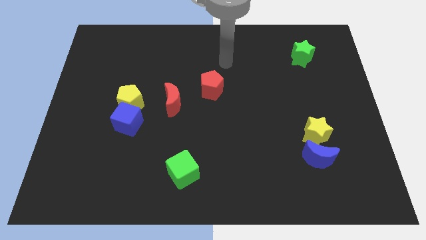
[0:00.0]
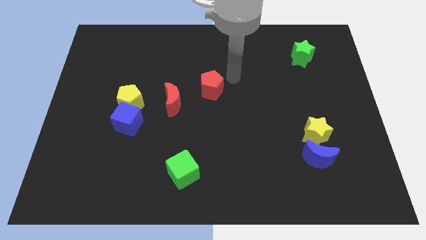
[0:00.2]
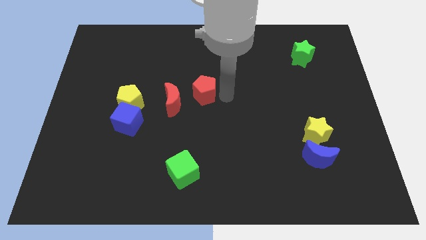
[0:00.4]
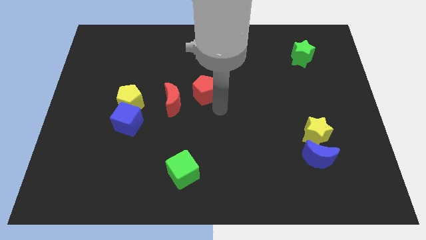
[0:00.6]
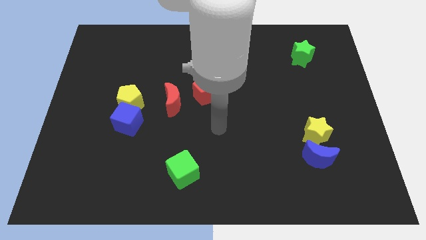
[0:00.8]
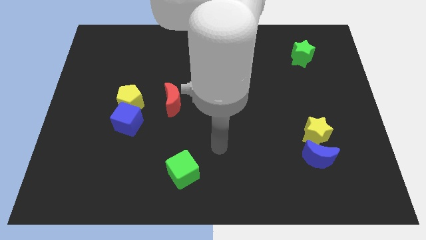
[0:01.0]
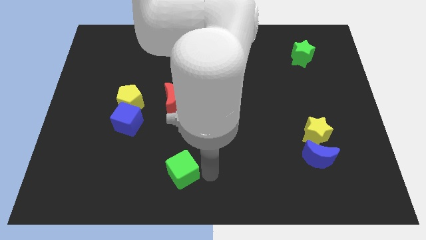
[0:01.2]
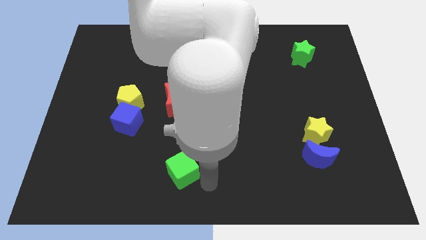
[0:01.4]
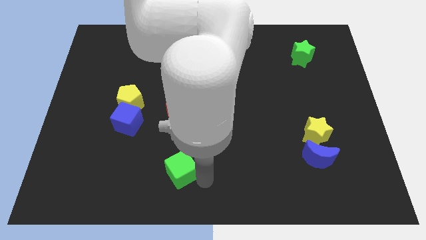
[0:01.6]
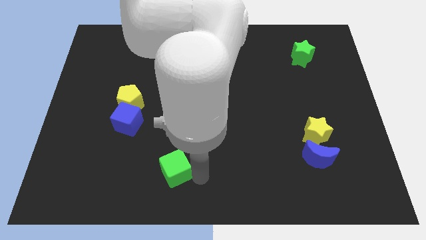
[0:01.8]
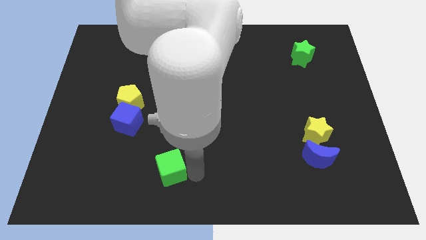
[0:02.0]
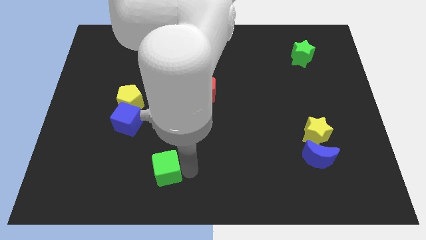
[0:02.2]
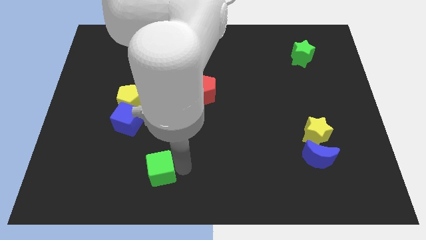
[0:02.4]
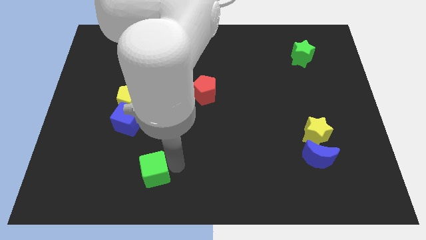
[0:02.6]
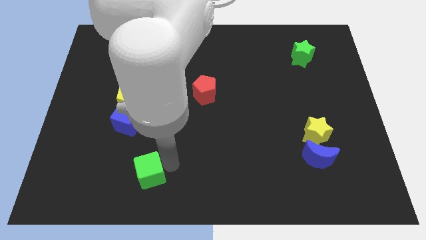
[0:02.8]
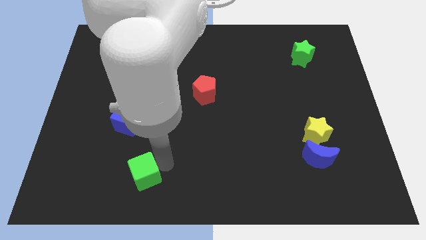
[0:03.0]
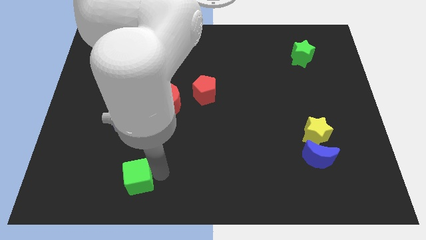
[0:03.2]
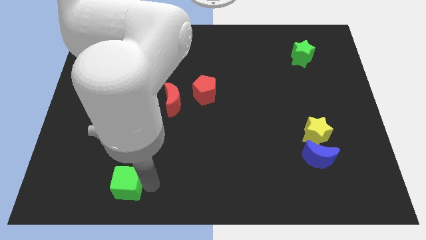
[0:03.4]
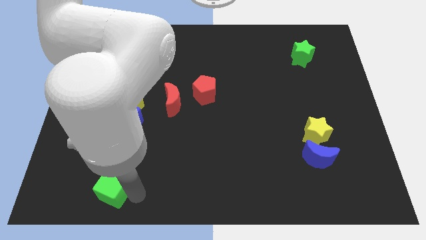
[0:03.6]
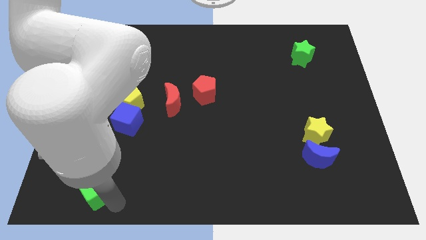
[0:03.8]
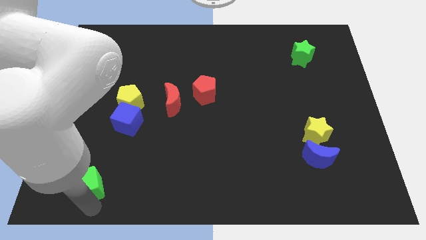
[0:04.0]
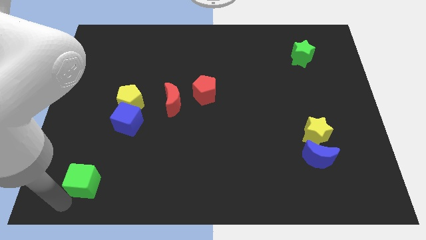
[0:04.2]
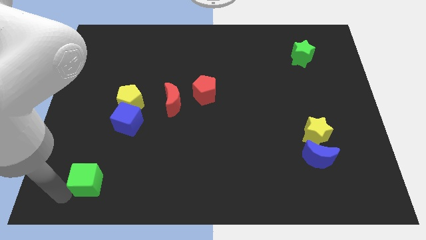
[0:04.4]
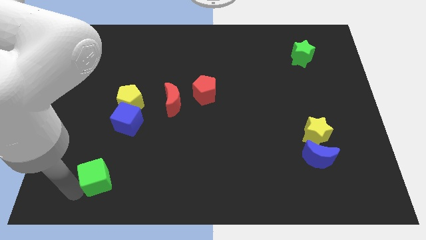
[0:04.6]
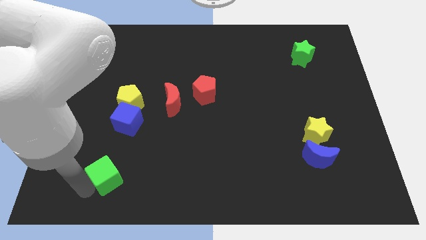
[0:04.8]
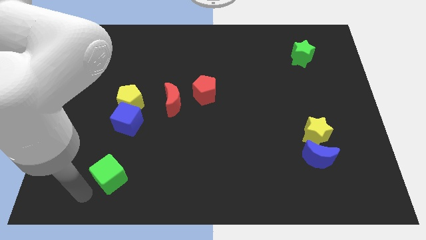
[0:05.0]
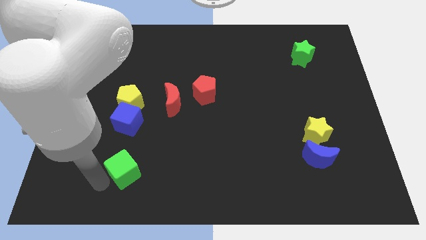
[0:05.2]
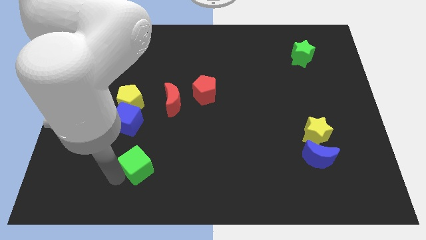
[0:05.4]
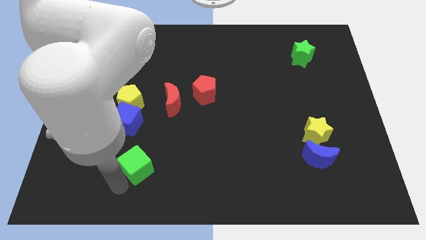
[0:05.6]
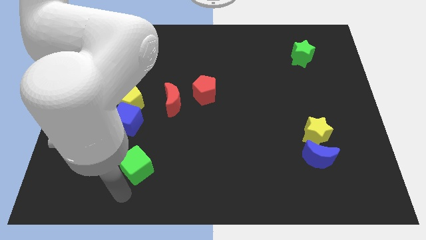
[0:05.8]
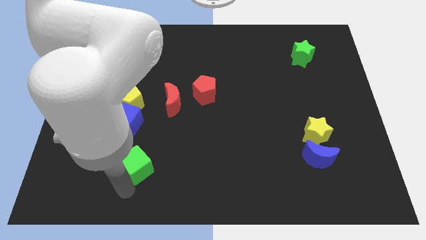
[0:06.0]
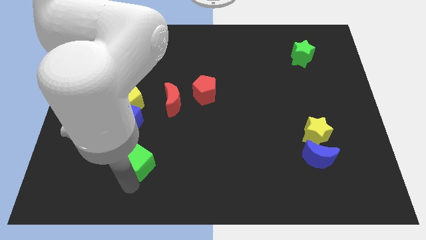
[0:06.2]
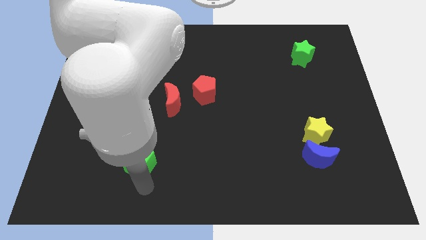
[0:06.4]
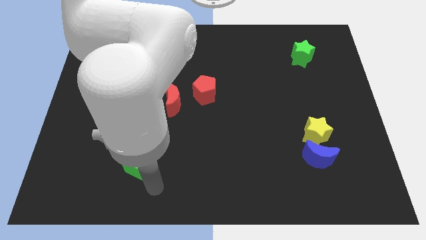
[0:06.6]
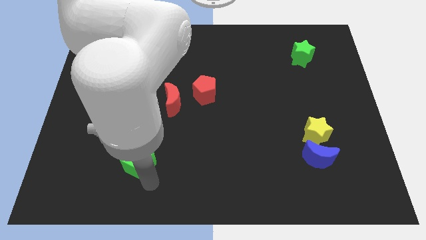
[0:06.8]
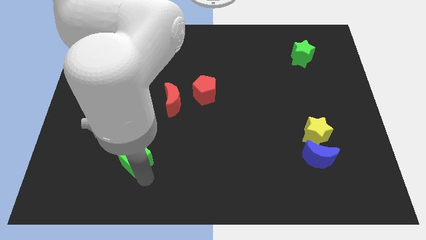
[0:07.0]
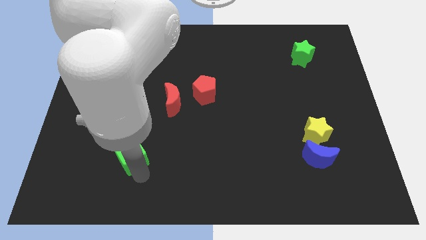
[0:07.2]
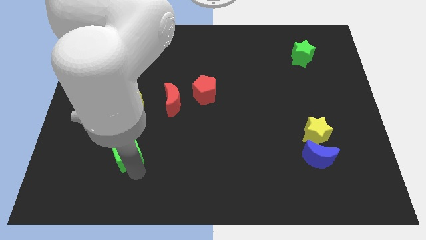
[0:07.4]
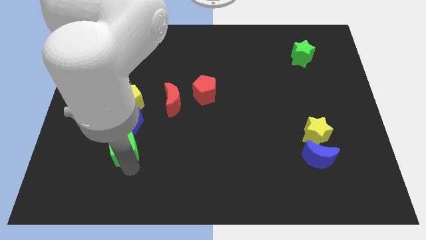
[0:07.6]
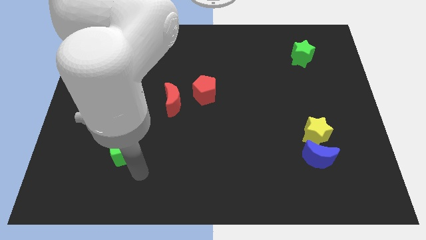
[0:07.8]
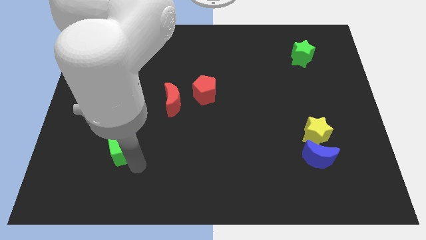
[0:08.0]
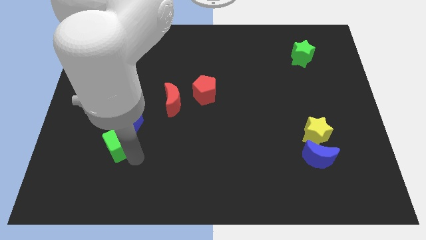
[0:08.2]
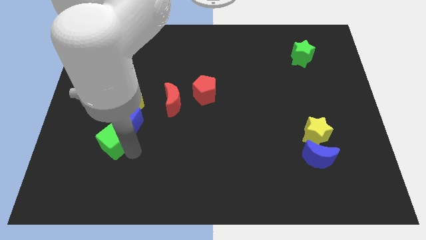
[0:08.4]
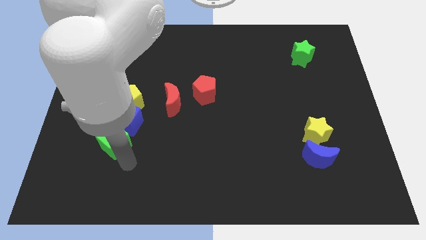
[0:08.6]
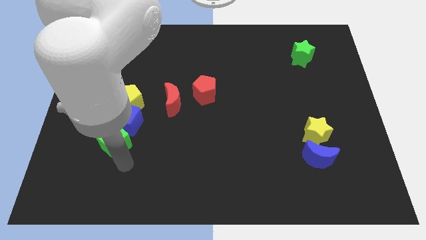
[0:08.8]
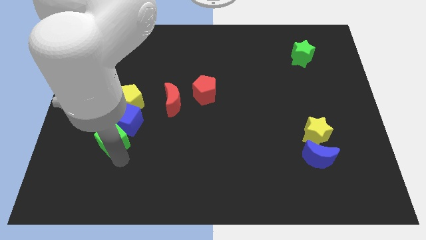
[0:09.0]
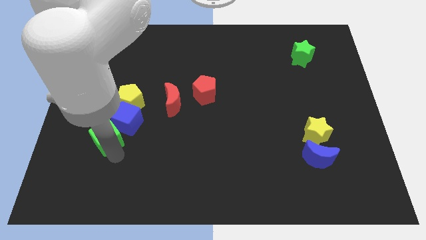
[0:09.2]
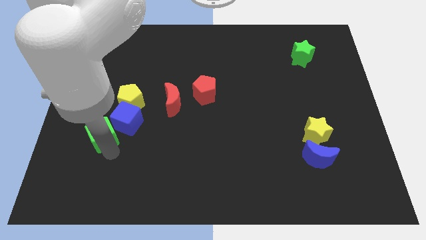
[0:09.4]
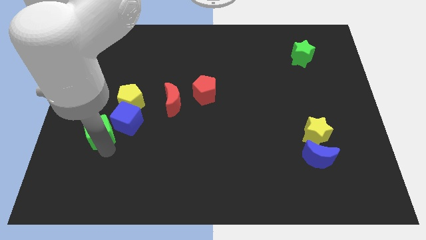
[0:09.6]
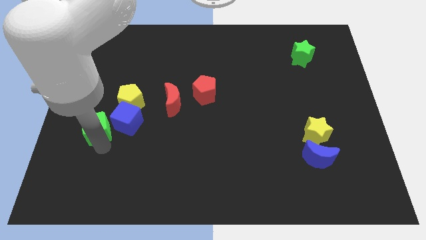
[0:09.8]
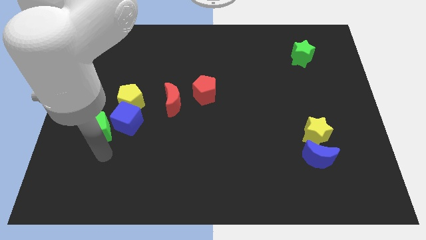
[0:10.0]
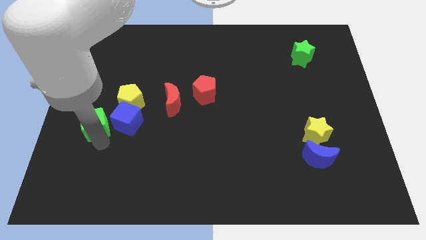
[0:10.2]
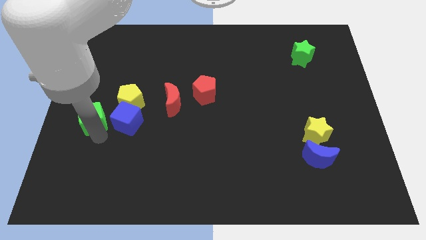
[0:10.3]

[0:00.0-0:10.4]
slide the green cube to the left side

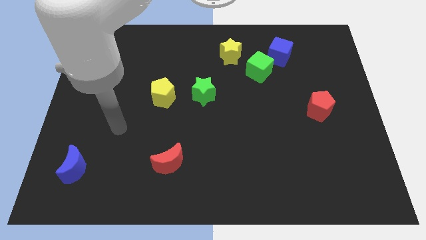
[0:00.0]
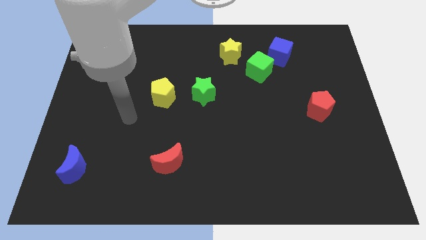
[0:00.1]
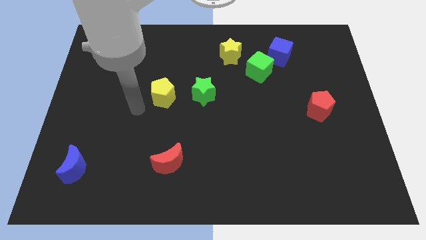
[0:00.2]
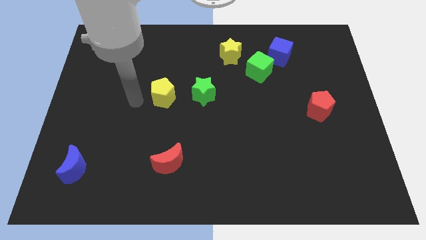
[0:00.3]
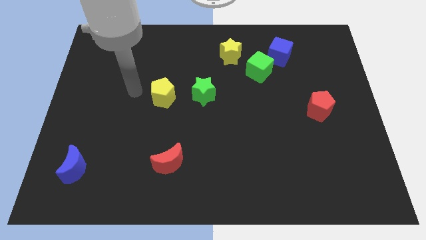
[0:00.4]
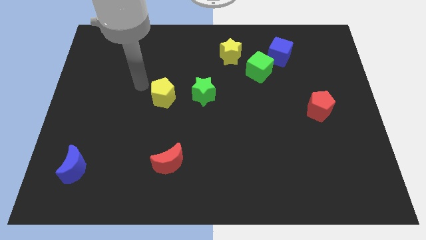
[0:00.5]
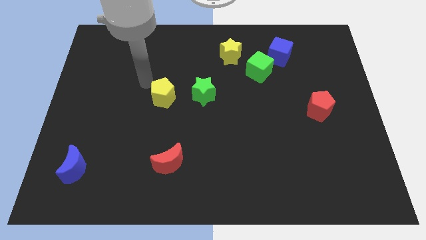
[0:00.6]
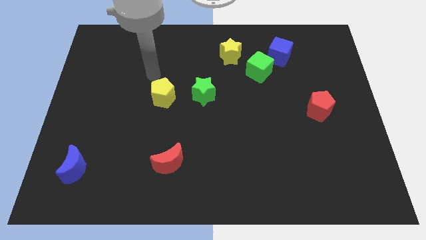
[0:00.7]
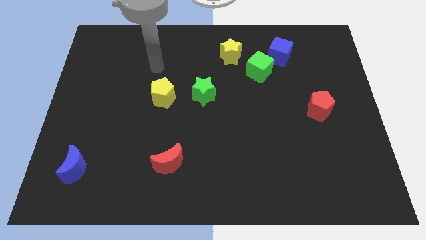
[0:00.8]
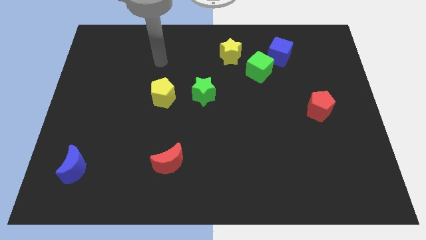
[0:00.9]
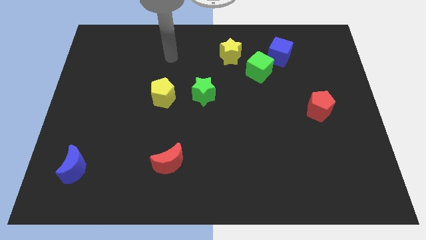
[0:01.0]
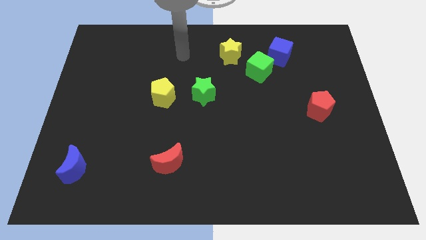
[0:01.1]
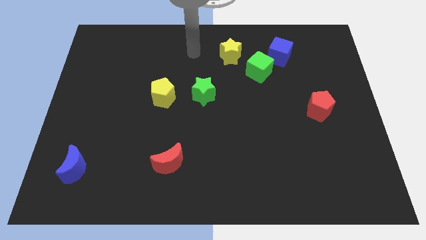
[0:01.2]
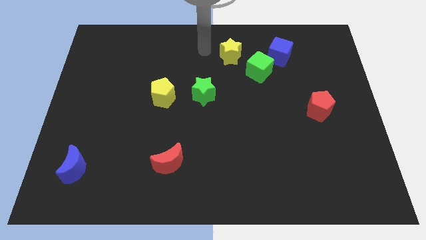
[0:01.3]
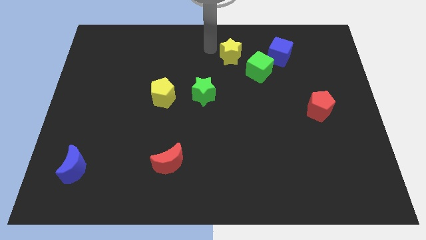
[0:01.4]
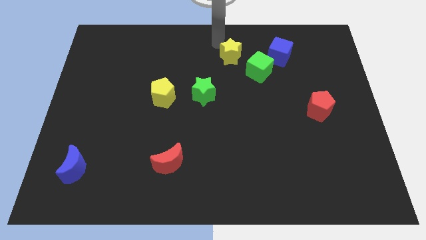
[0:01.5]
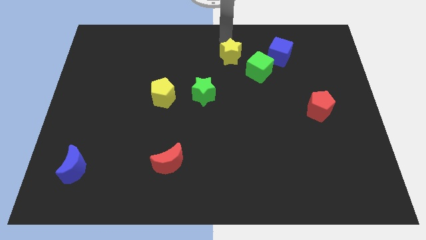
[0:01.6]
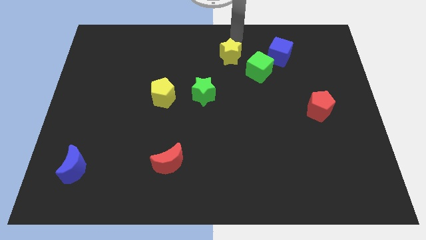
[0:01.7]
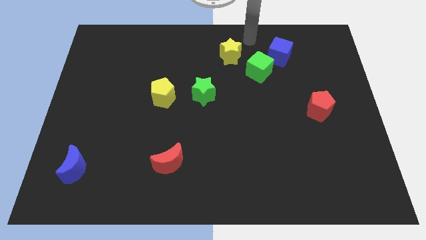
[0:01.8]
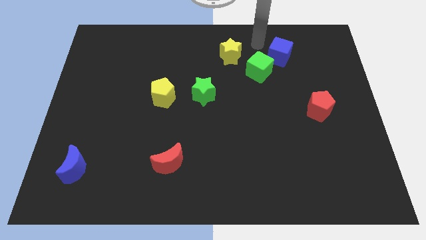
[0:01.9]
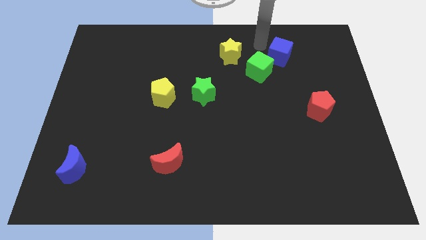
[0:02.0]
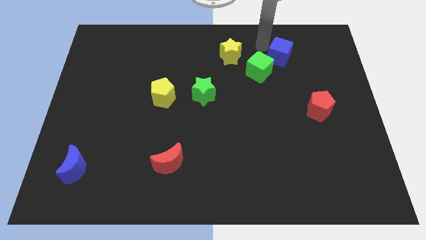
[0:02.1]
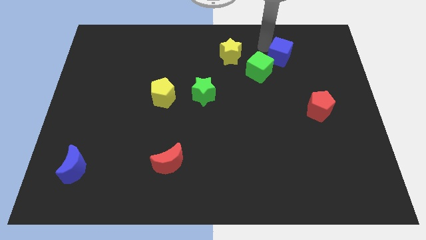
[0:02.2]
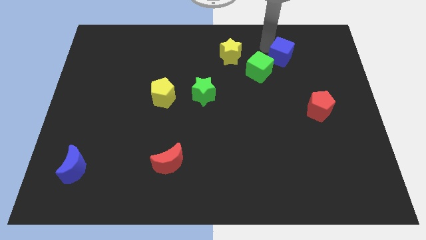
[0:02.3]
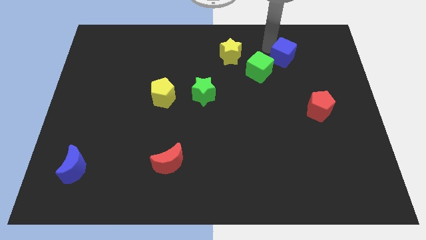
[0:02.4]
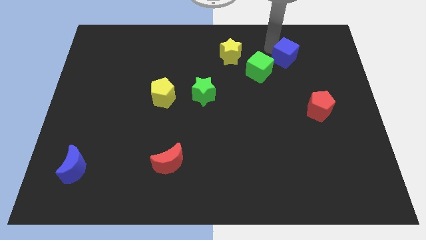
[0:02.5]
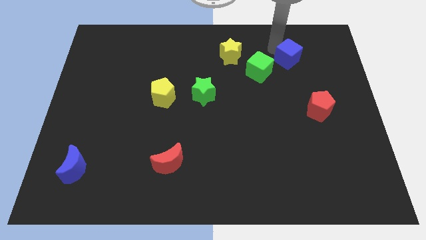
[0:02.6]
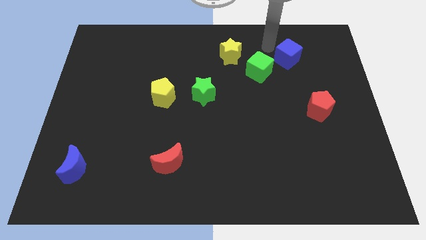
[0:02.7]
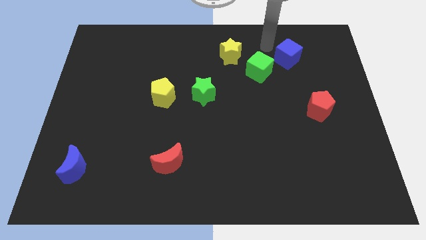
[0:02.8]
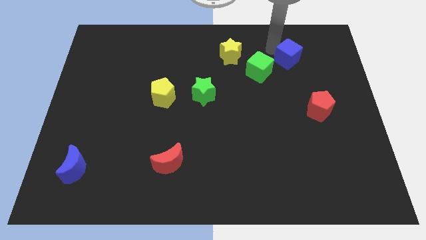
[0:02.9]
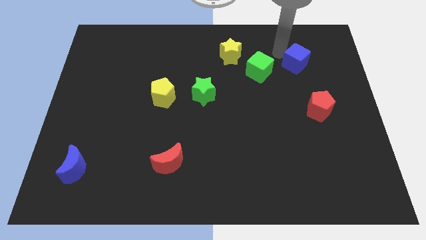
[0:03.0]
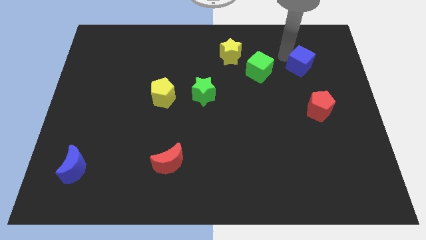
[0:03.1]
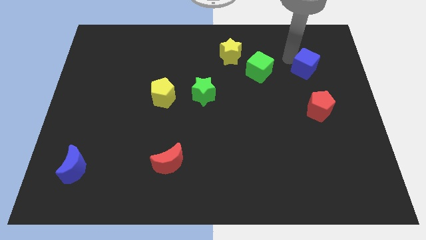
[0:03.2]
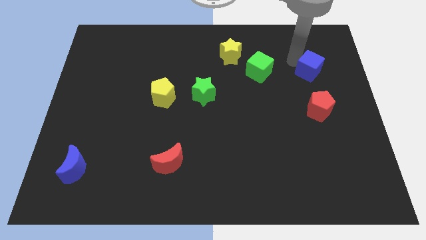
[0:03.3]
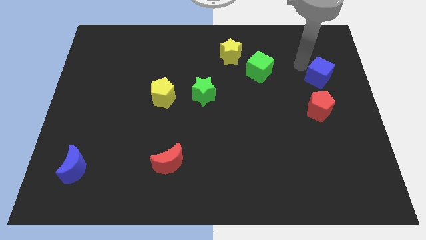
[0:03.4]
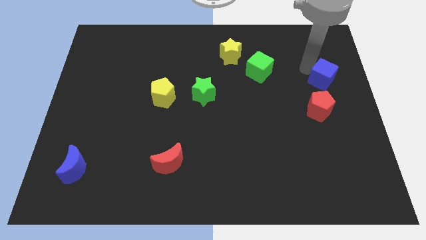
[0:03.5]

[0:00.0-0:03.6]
move the blue cube to the center right
